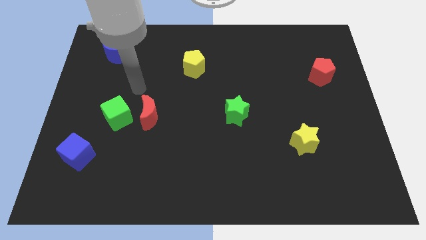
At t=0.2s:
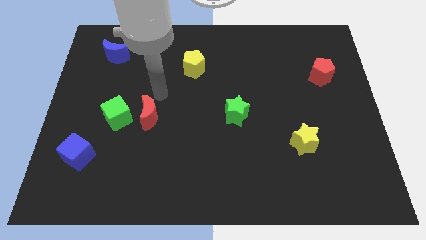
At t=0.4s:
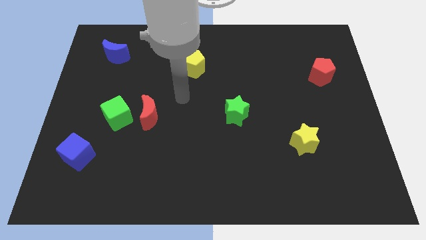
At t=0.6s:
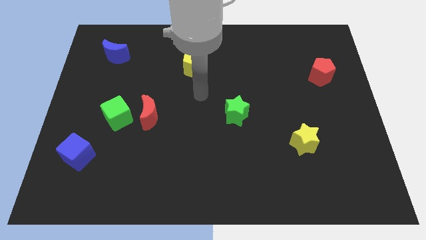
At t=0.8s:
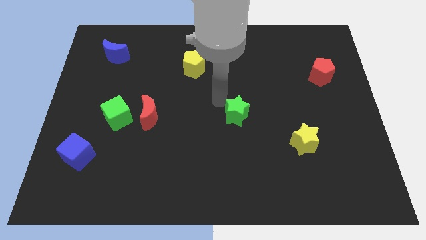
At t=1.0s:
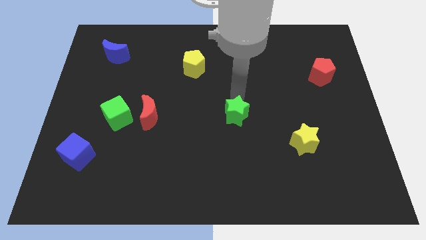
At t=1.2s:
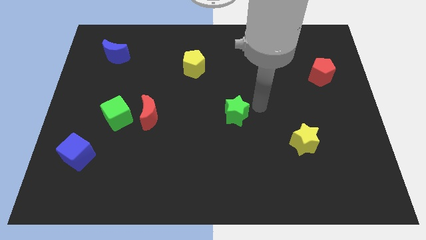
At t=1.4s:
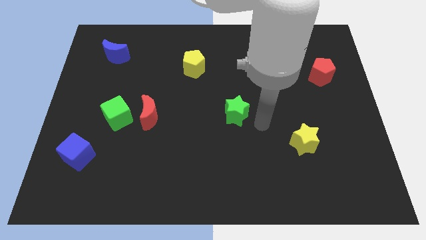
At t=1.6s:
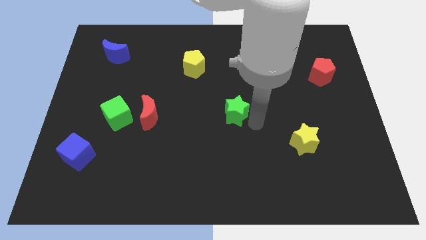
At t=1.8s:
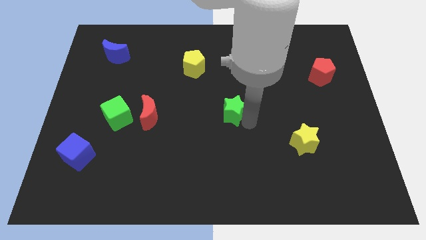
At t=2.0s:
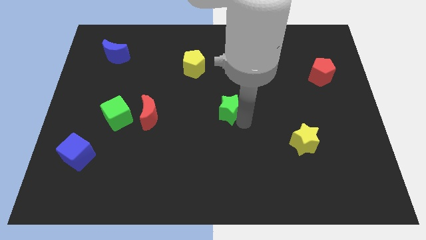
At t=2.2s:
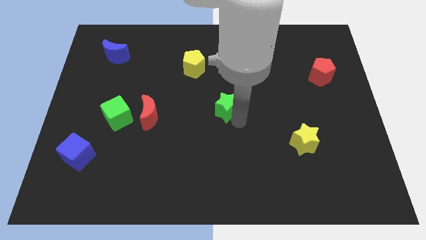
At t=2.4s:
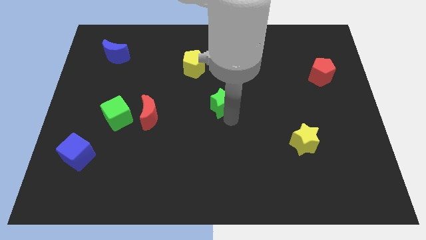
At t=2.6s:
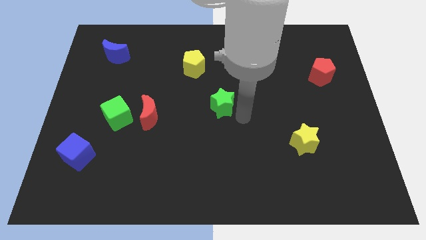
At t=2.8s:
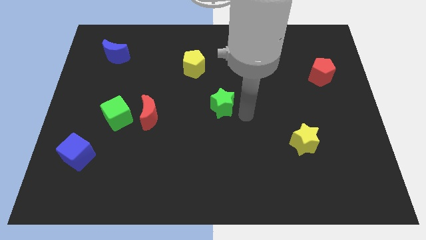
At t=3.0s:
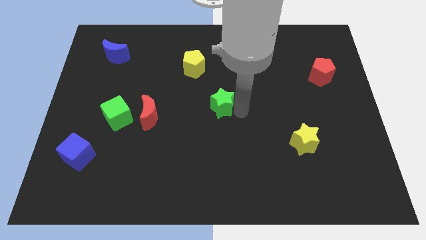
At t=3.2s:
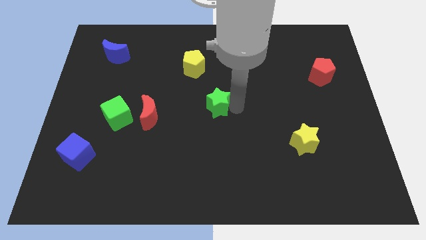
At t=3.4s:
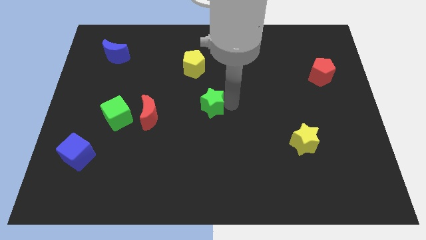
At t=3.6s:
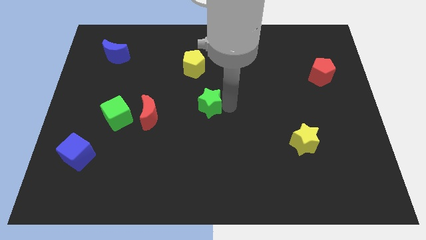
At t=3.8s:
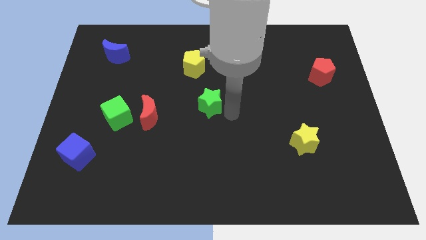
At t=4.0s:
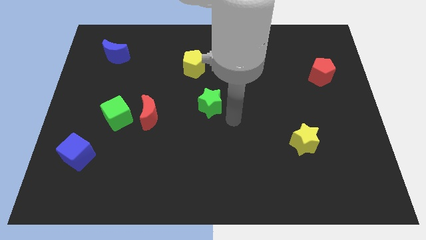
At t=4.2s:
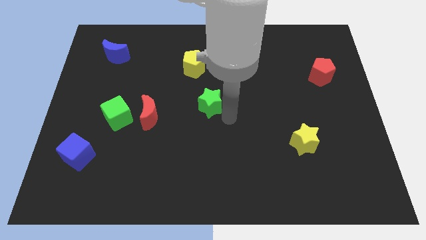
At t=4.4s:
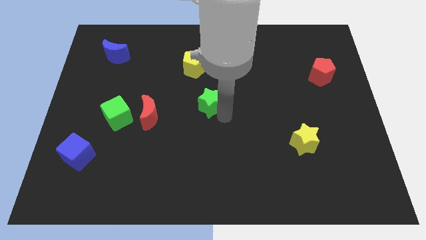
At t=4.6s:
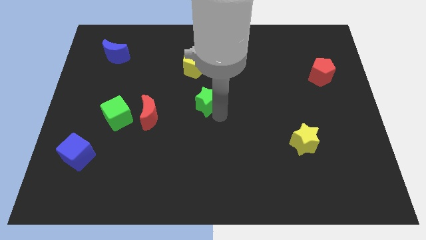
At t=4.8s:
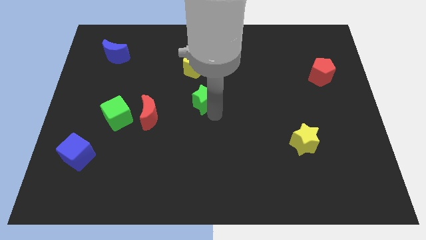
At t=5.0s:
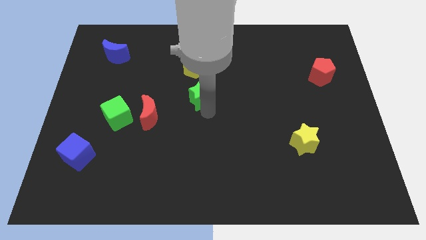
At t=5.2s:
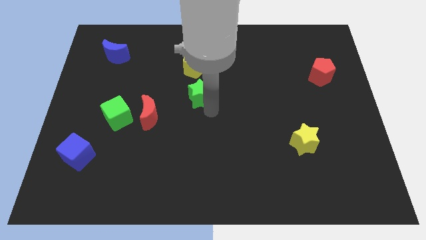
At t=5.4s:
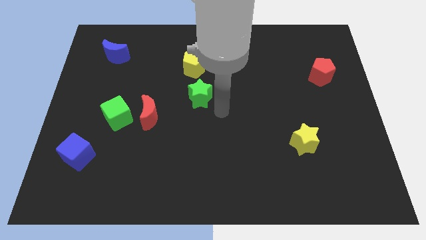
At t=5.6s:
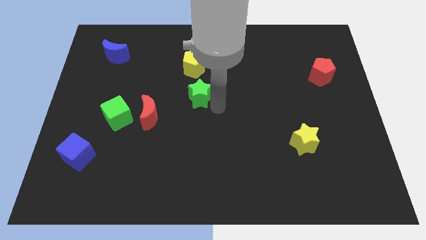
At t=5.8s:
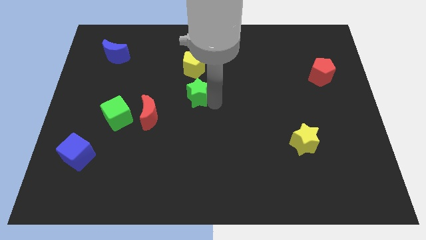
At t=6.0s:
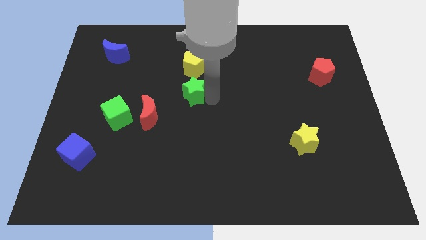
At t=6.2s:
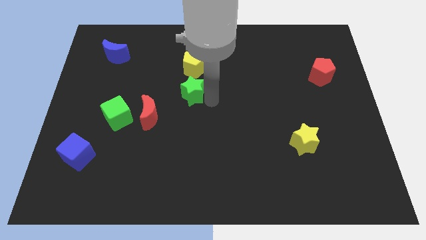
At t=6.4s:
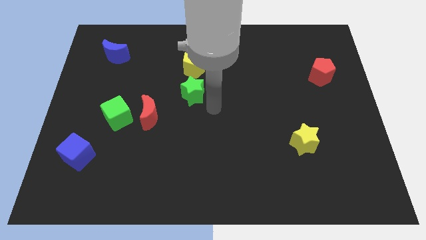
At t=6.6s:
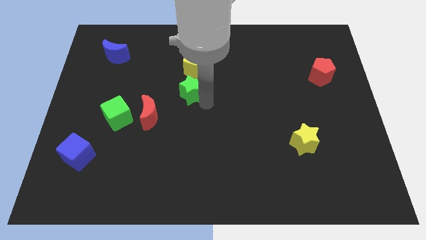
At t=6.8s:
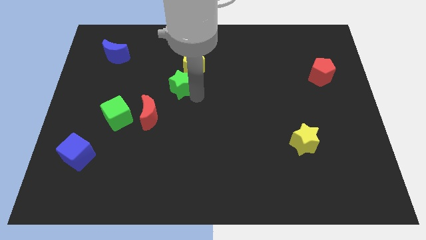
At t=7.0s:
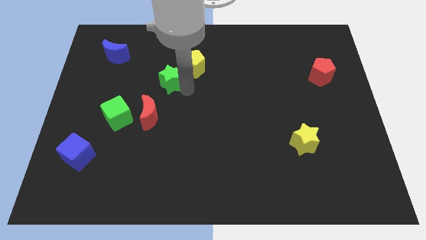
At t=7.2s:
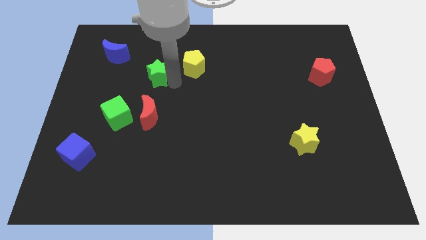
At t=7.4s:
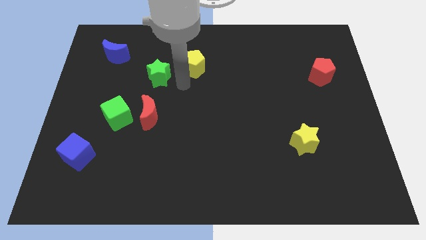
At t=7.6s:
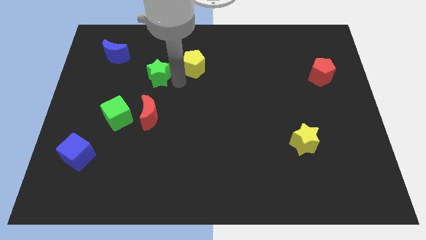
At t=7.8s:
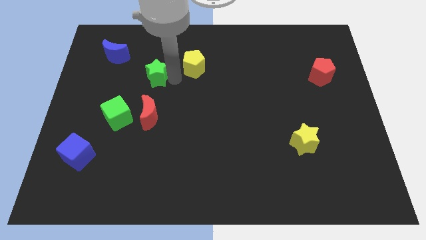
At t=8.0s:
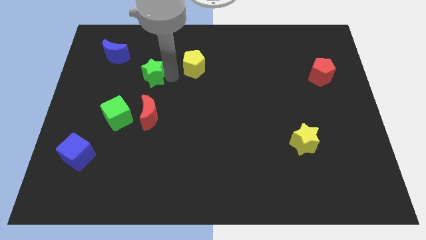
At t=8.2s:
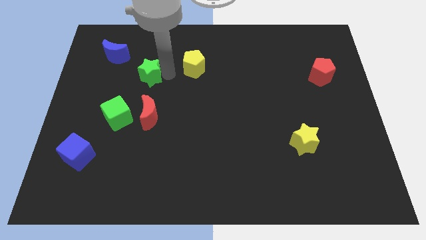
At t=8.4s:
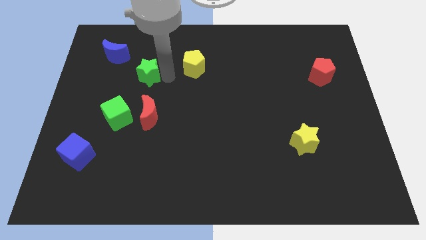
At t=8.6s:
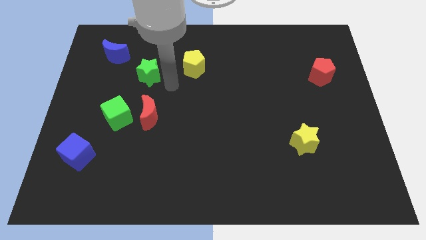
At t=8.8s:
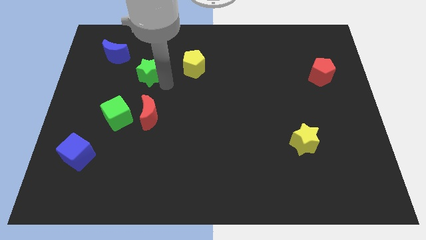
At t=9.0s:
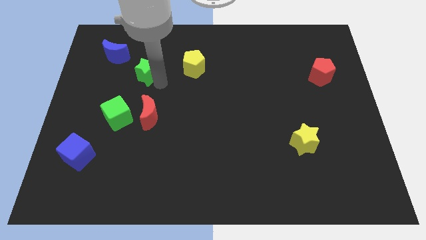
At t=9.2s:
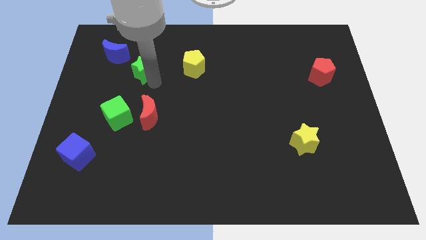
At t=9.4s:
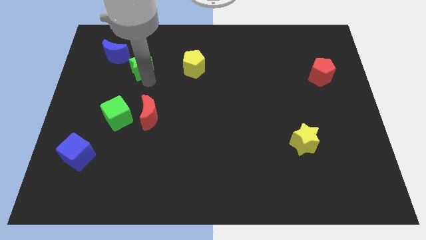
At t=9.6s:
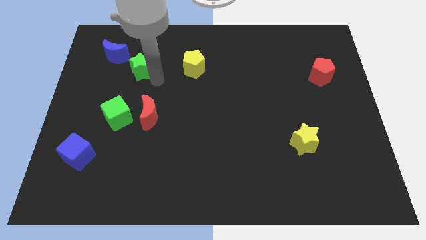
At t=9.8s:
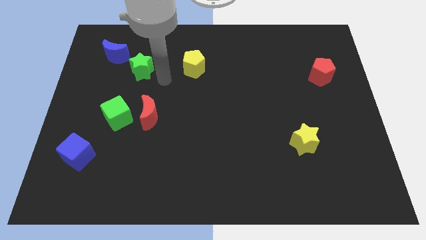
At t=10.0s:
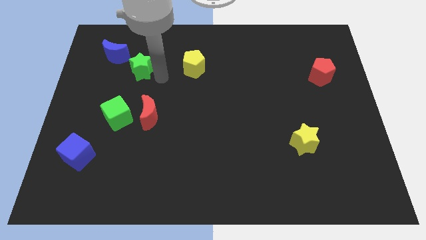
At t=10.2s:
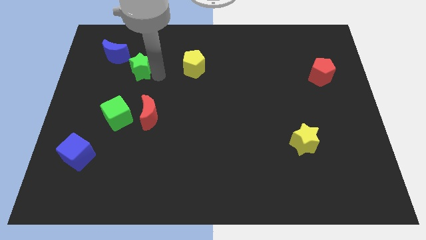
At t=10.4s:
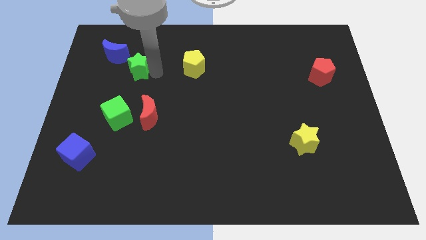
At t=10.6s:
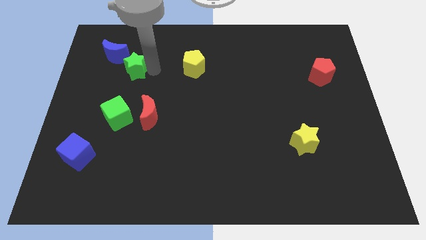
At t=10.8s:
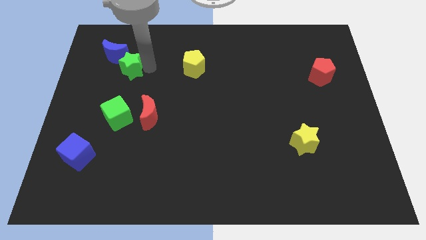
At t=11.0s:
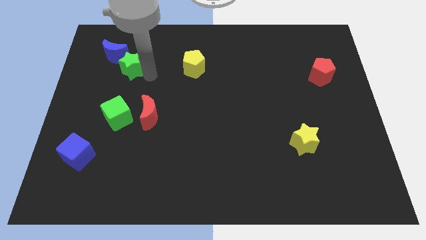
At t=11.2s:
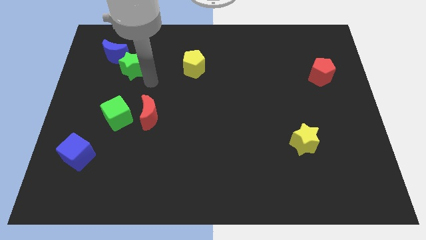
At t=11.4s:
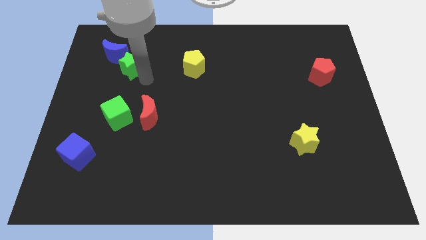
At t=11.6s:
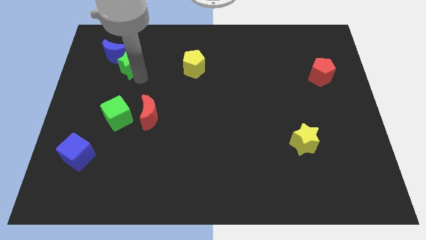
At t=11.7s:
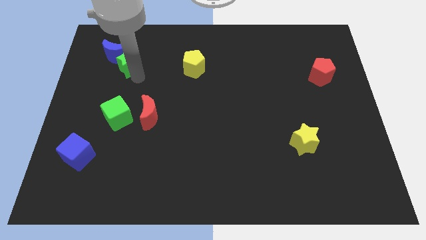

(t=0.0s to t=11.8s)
move the green star close to the blue moon

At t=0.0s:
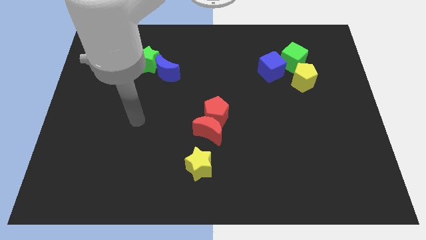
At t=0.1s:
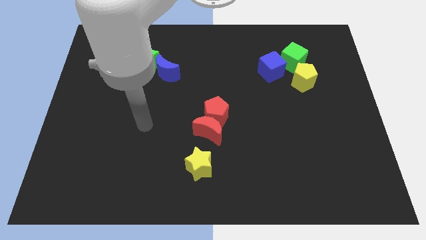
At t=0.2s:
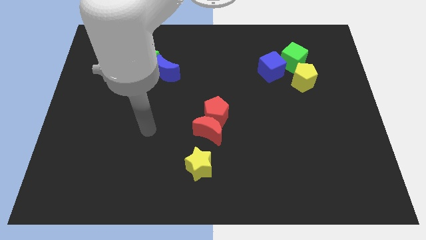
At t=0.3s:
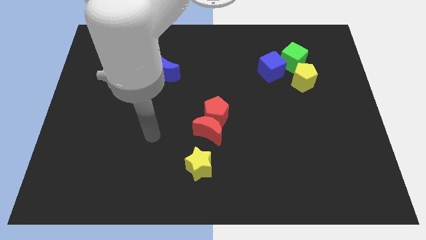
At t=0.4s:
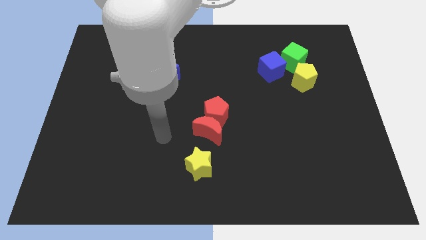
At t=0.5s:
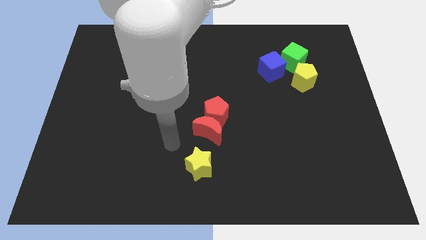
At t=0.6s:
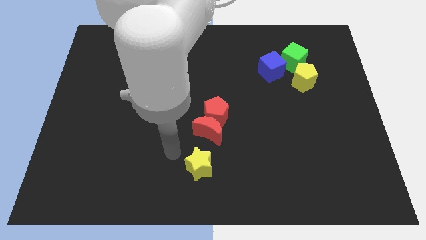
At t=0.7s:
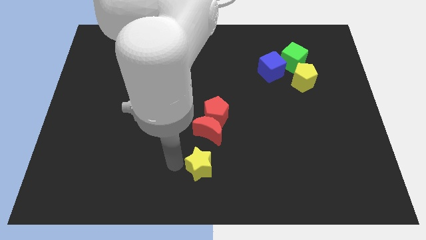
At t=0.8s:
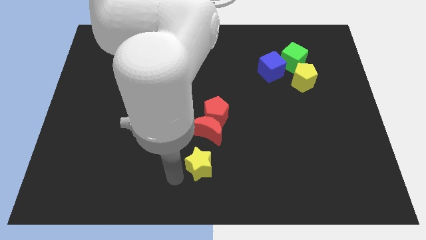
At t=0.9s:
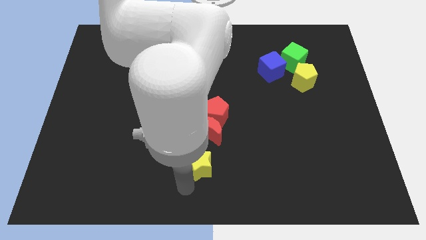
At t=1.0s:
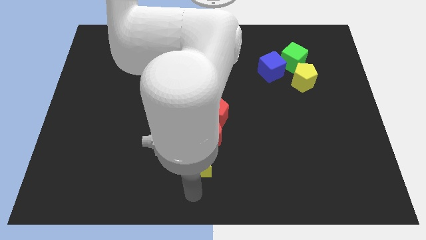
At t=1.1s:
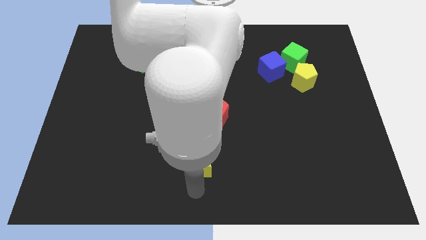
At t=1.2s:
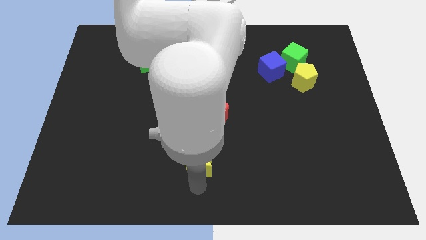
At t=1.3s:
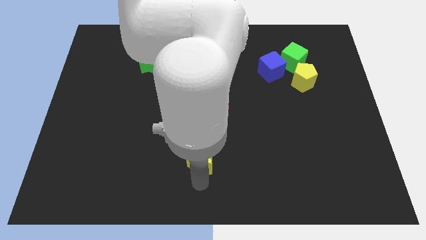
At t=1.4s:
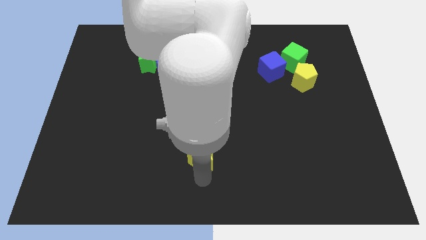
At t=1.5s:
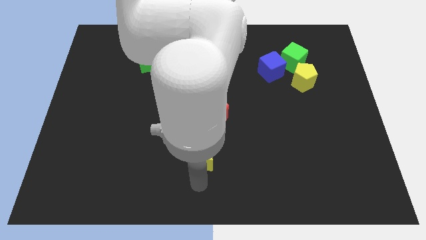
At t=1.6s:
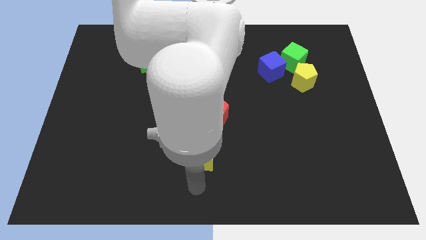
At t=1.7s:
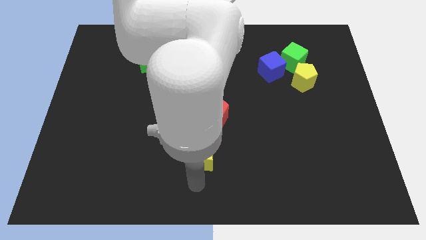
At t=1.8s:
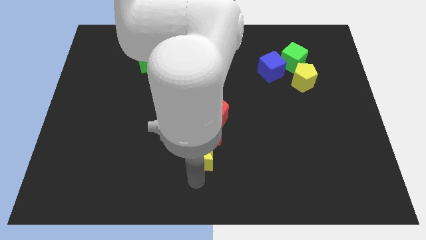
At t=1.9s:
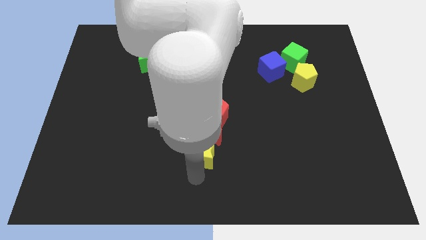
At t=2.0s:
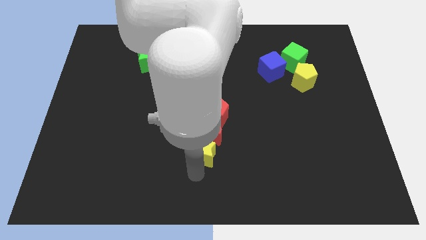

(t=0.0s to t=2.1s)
slide the yellow star to the red moon
